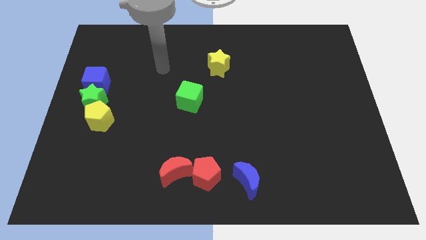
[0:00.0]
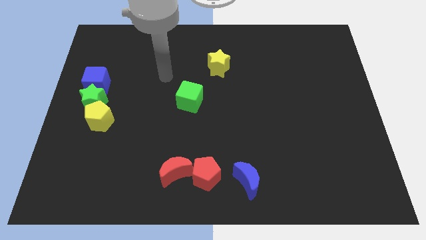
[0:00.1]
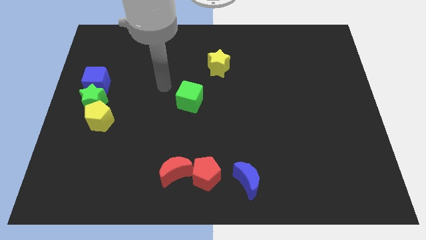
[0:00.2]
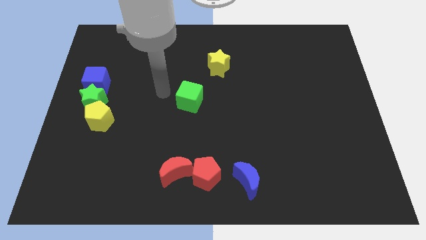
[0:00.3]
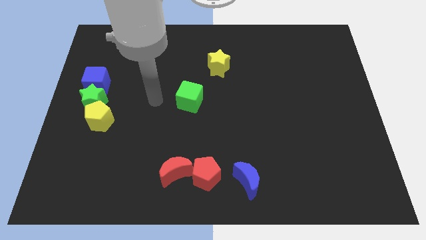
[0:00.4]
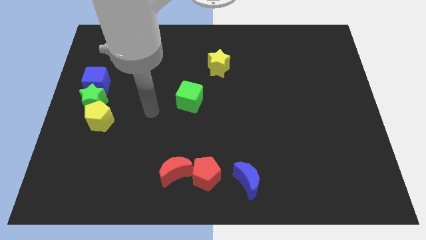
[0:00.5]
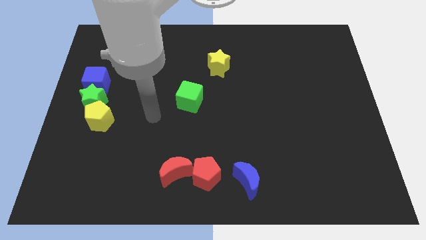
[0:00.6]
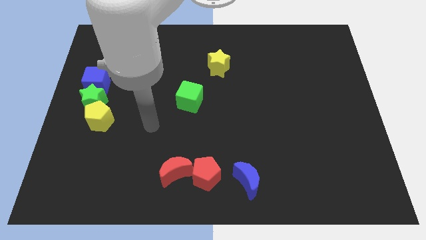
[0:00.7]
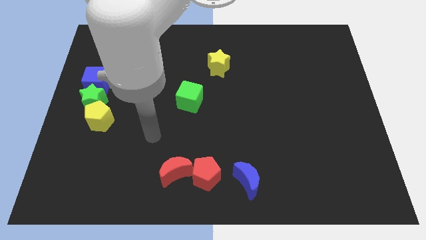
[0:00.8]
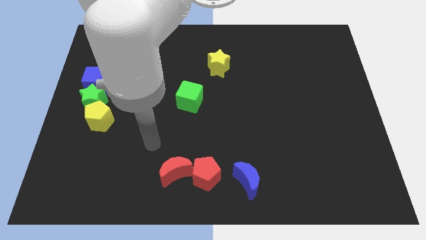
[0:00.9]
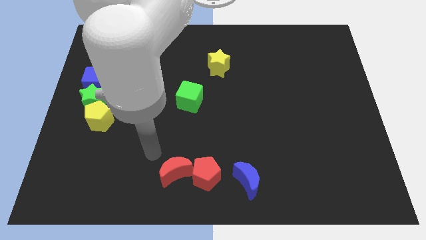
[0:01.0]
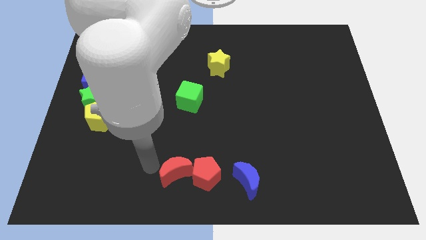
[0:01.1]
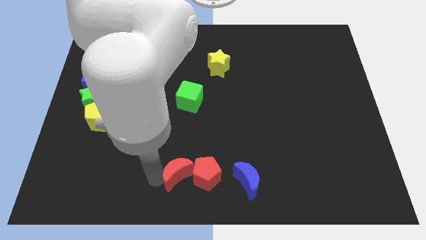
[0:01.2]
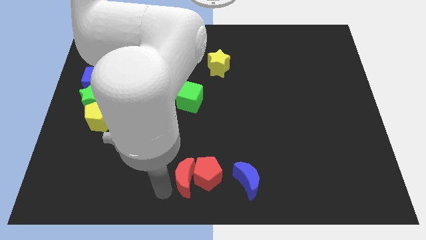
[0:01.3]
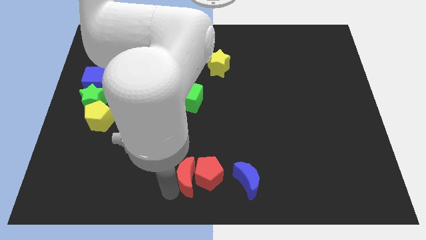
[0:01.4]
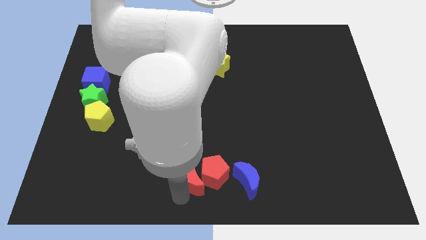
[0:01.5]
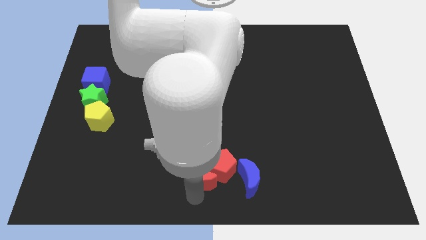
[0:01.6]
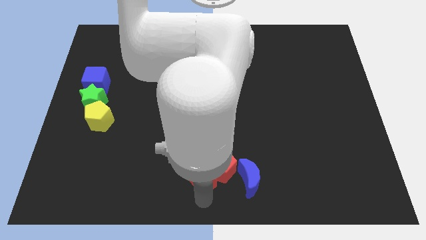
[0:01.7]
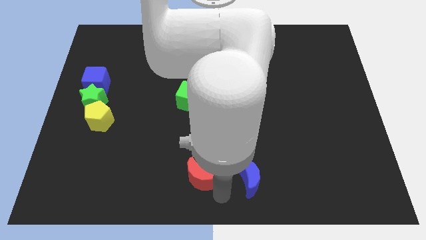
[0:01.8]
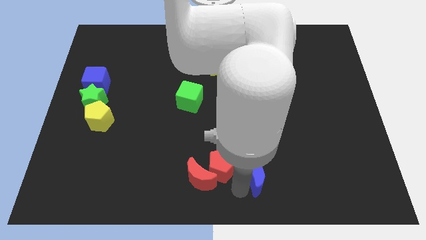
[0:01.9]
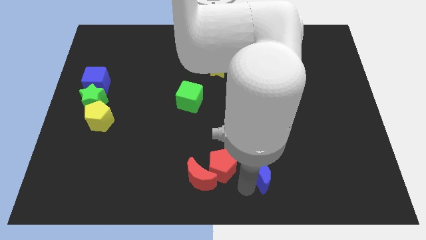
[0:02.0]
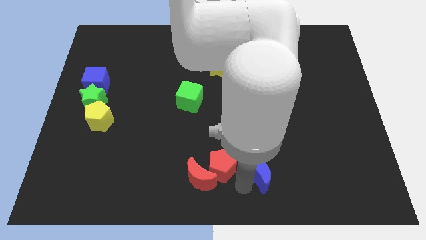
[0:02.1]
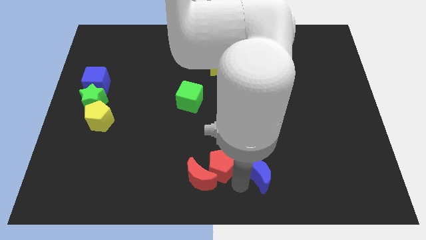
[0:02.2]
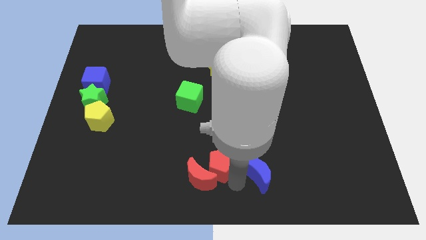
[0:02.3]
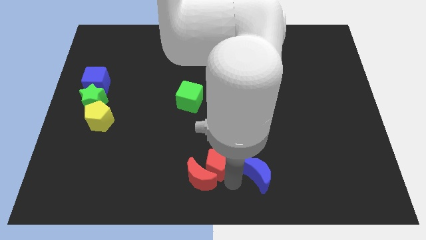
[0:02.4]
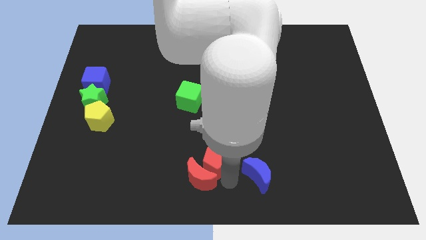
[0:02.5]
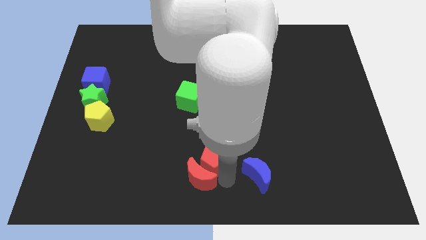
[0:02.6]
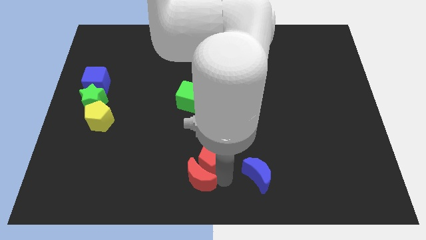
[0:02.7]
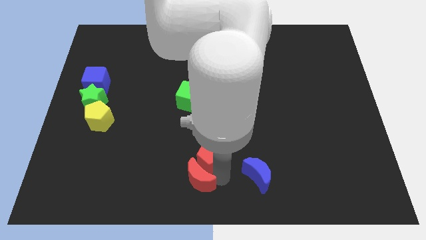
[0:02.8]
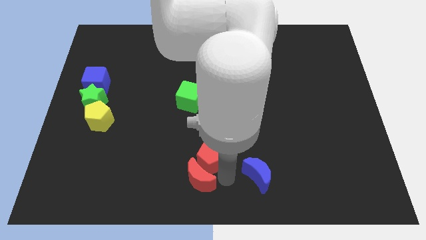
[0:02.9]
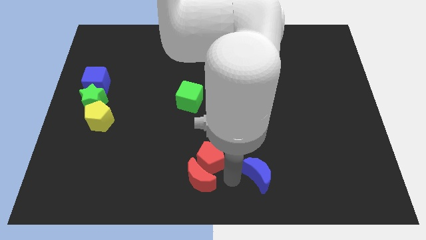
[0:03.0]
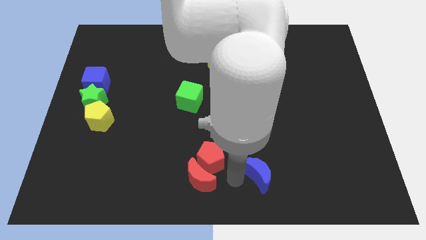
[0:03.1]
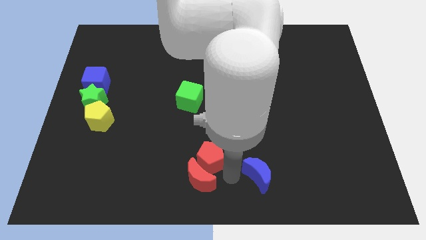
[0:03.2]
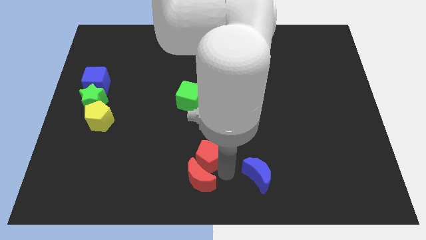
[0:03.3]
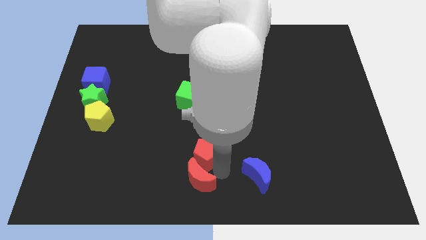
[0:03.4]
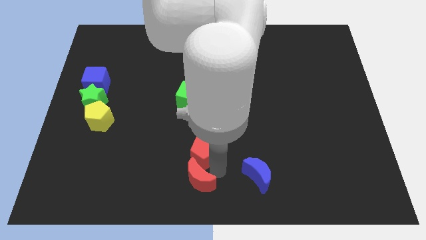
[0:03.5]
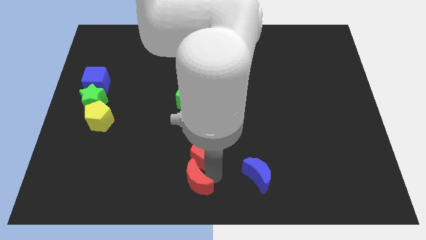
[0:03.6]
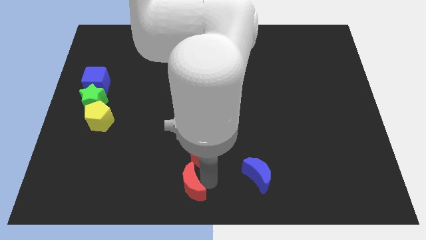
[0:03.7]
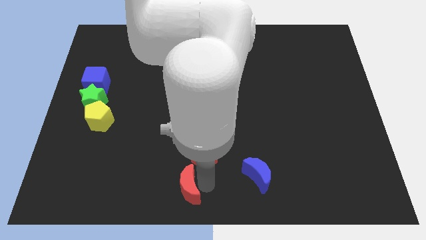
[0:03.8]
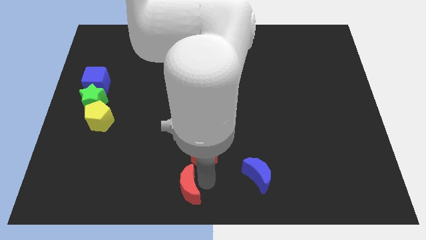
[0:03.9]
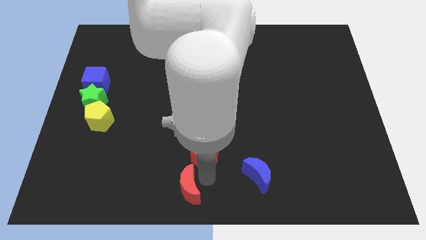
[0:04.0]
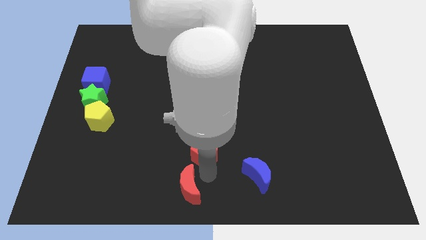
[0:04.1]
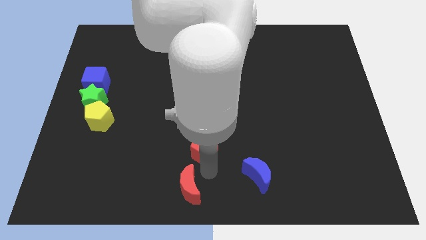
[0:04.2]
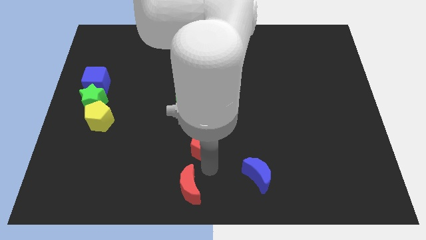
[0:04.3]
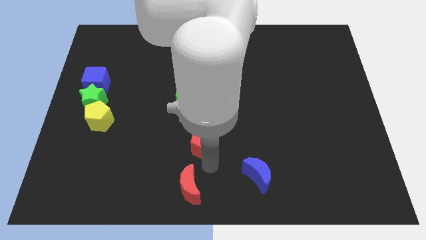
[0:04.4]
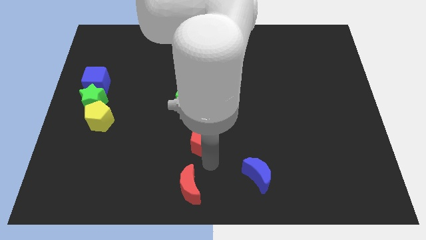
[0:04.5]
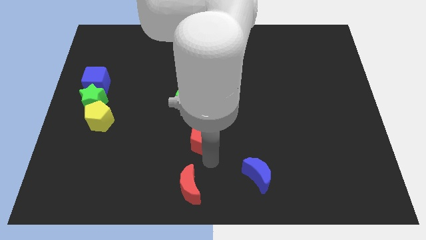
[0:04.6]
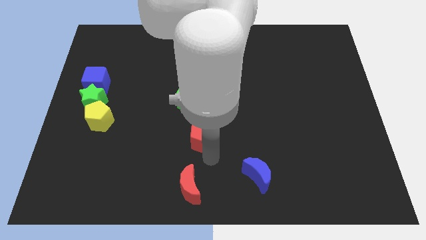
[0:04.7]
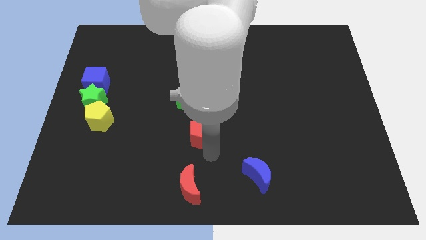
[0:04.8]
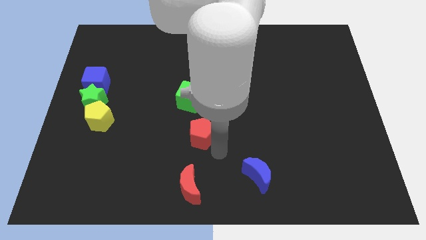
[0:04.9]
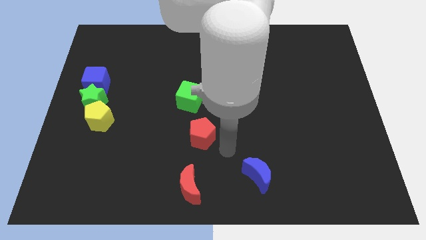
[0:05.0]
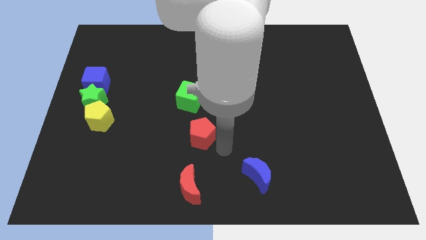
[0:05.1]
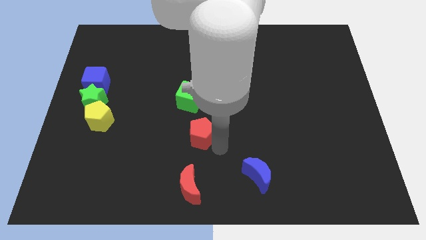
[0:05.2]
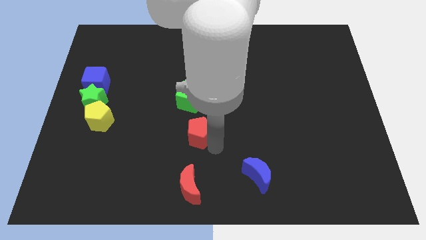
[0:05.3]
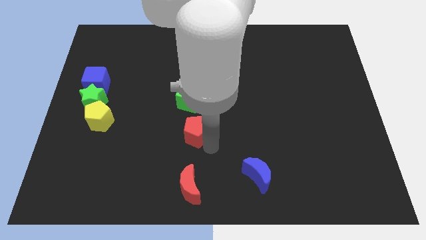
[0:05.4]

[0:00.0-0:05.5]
slide the red pentagon slightly up and left

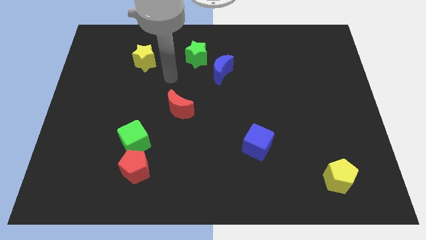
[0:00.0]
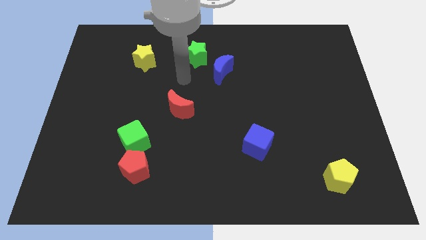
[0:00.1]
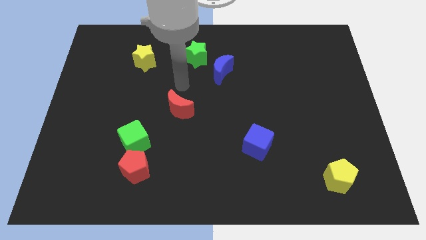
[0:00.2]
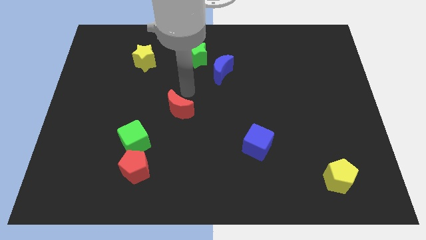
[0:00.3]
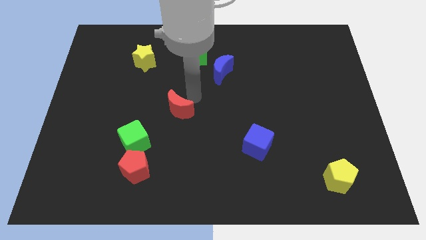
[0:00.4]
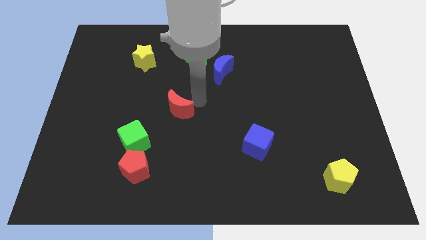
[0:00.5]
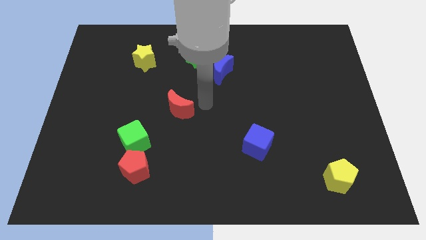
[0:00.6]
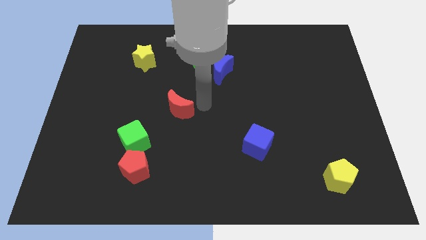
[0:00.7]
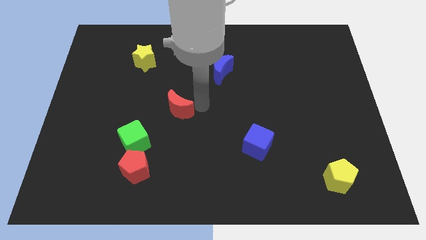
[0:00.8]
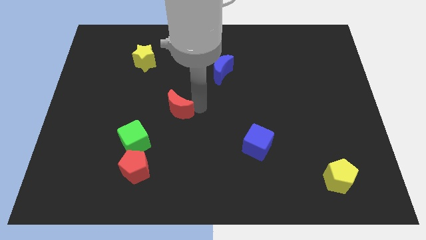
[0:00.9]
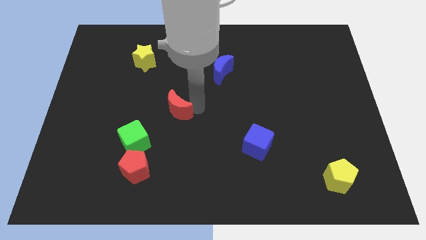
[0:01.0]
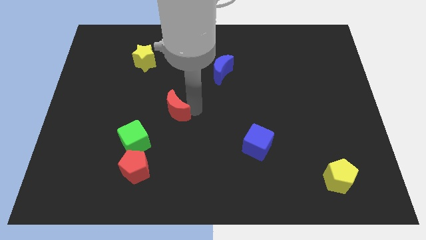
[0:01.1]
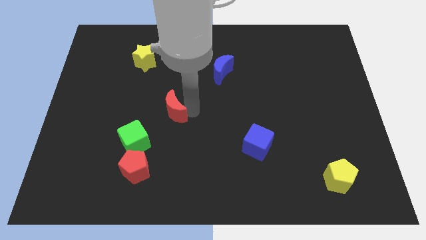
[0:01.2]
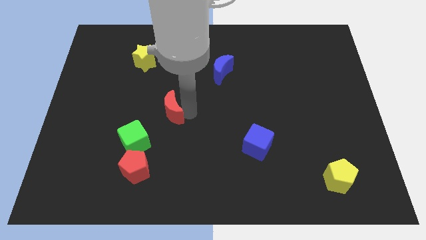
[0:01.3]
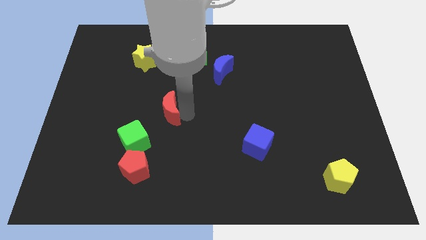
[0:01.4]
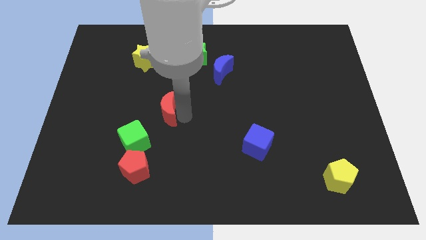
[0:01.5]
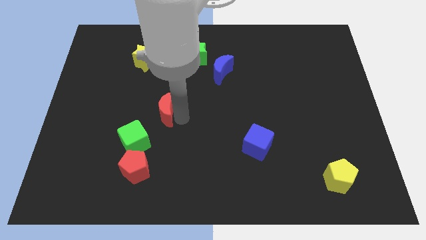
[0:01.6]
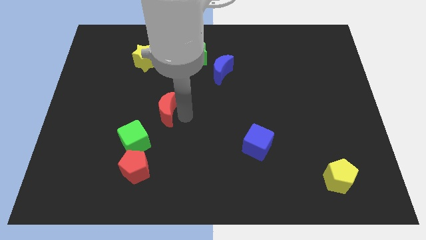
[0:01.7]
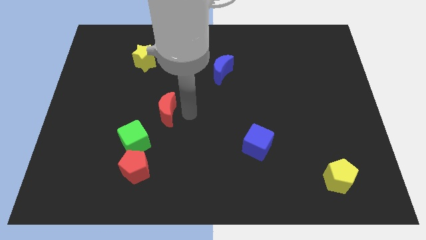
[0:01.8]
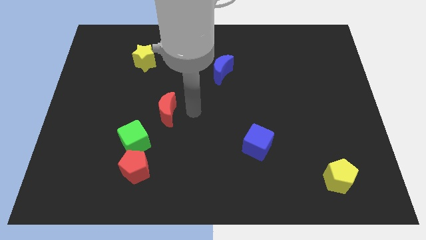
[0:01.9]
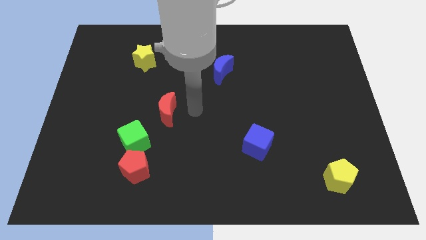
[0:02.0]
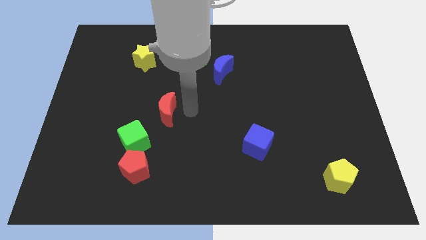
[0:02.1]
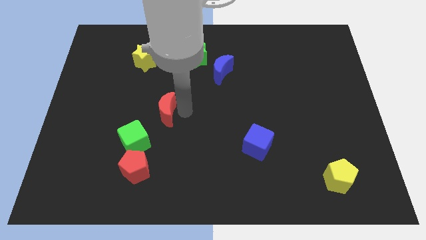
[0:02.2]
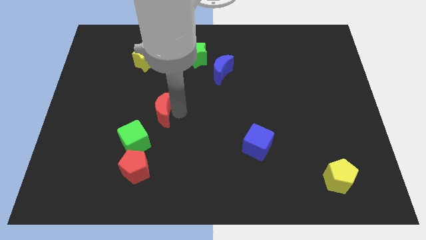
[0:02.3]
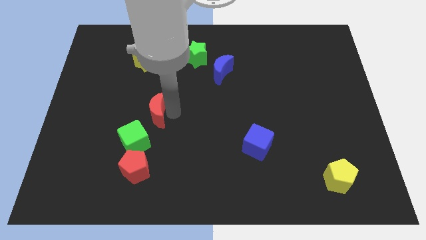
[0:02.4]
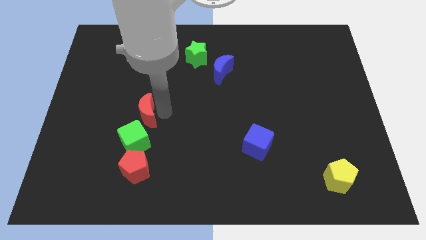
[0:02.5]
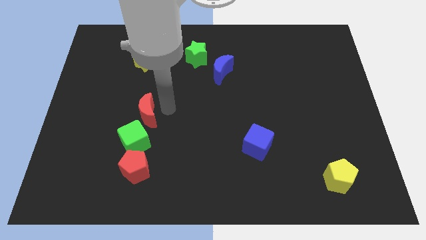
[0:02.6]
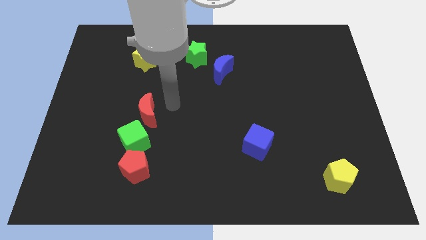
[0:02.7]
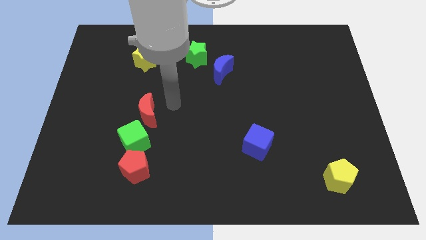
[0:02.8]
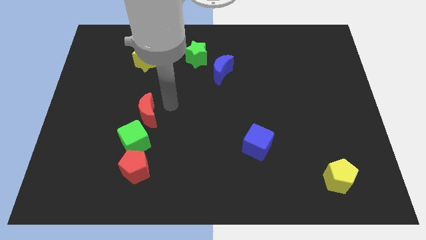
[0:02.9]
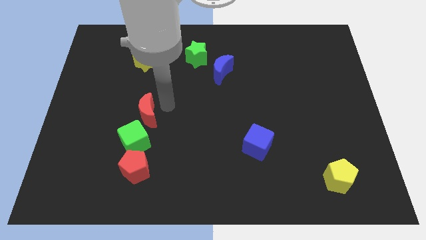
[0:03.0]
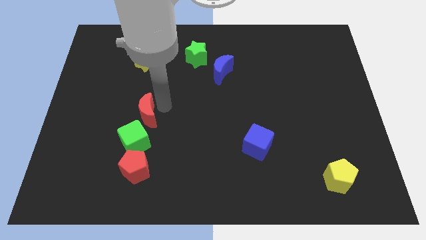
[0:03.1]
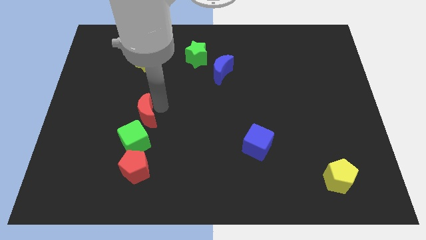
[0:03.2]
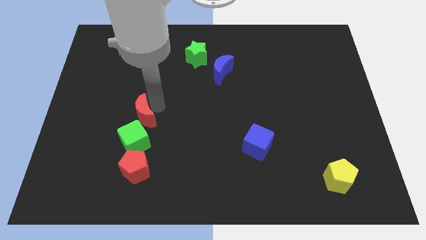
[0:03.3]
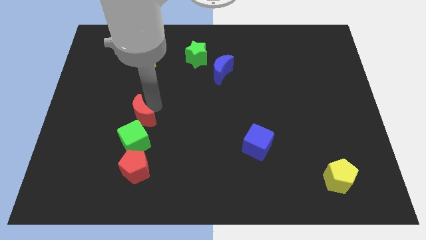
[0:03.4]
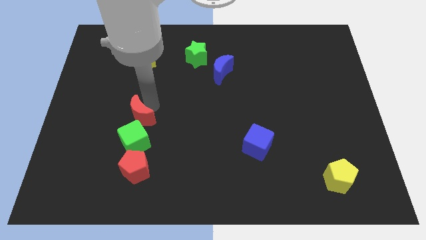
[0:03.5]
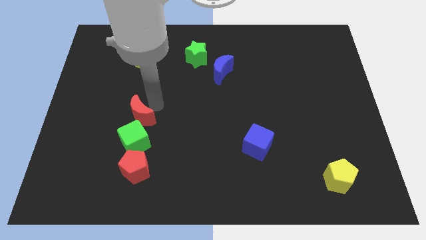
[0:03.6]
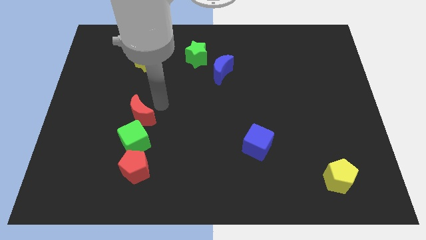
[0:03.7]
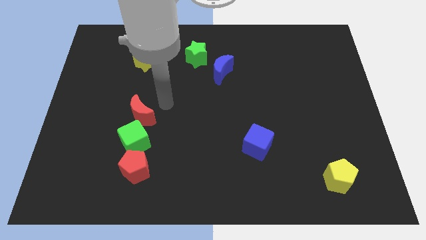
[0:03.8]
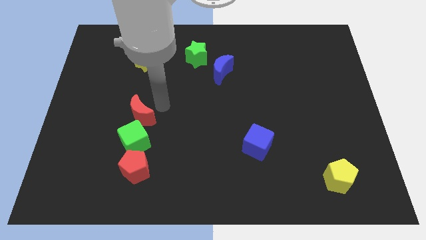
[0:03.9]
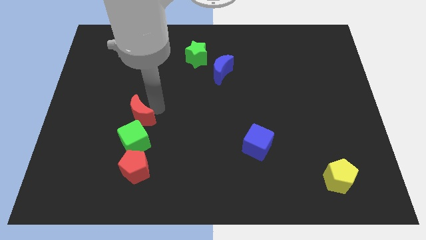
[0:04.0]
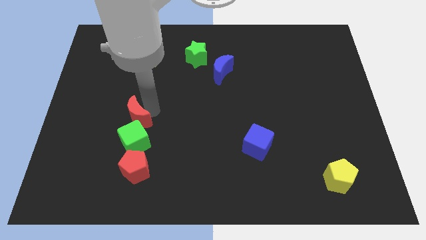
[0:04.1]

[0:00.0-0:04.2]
move the red moon downwards and then to the left a little bit
